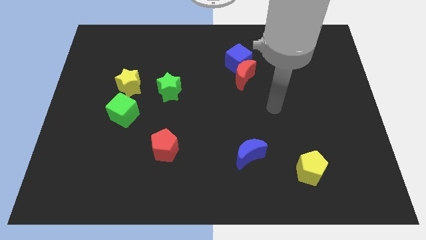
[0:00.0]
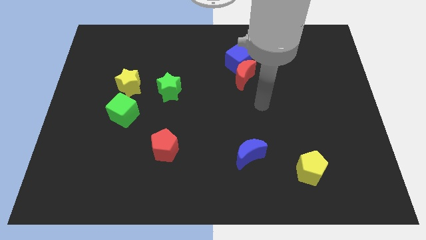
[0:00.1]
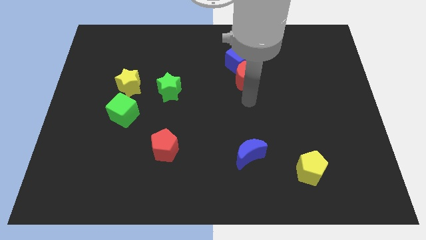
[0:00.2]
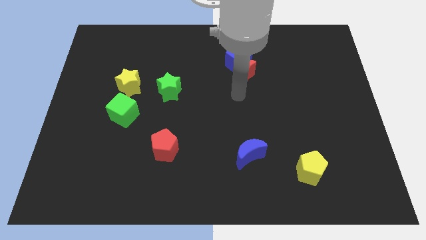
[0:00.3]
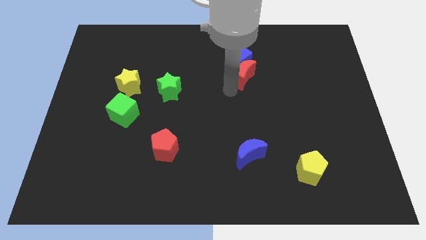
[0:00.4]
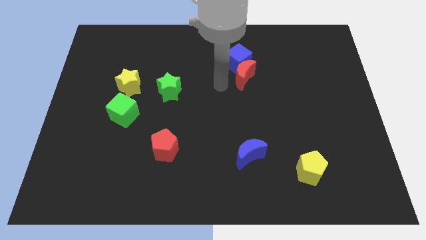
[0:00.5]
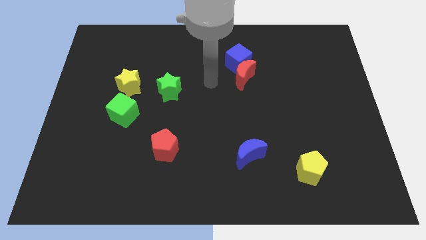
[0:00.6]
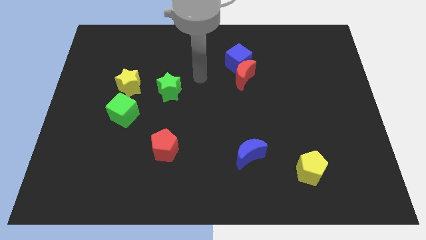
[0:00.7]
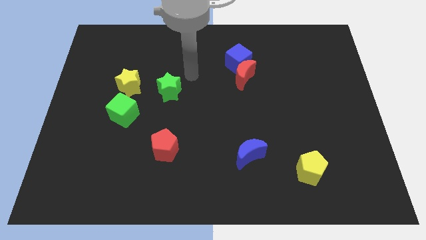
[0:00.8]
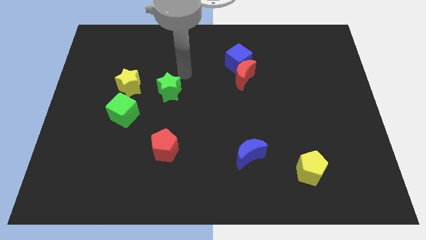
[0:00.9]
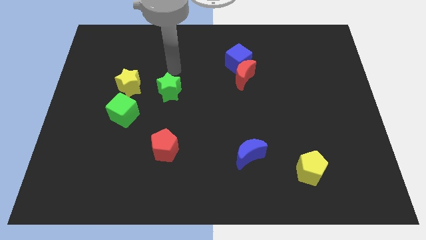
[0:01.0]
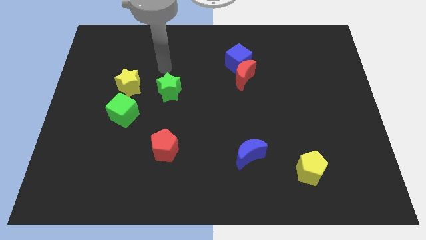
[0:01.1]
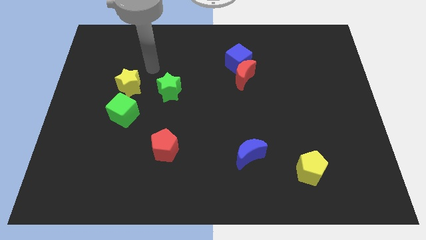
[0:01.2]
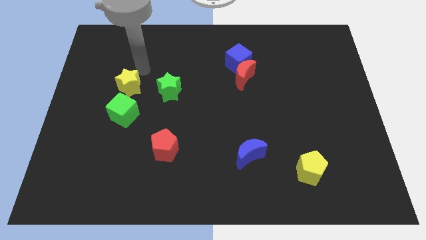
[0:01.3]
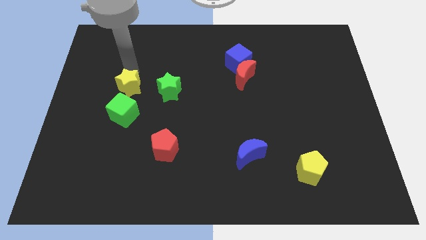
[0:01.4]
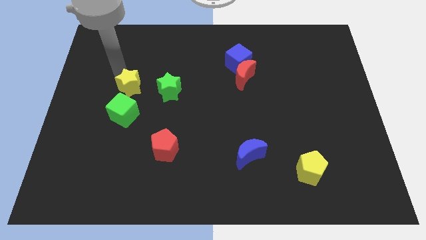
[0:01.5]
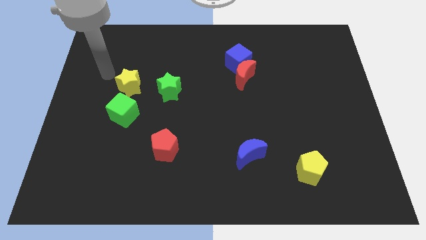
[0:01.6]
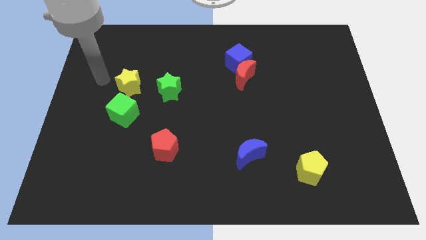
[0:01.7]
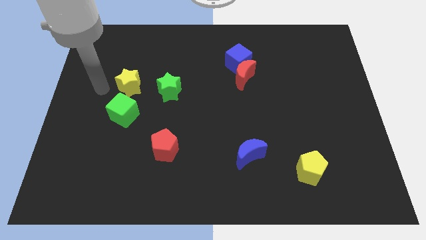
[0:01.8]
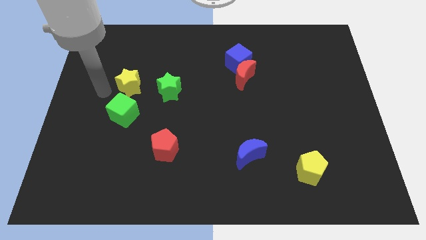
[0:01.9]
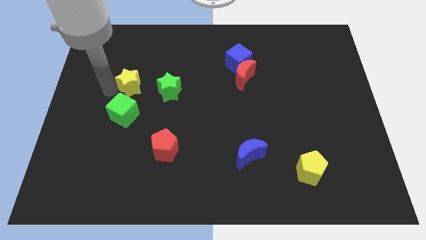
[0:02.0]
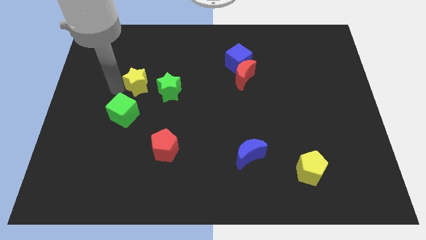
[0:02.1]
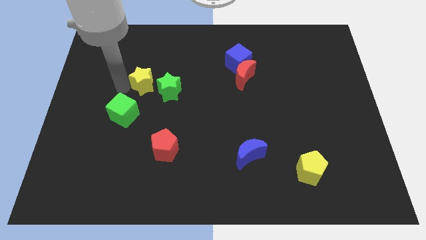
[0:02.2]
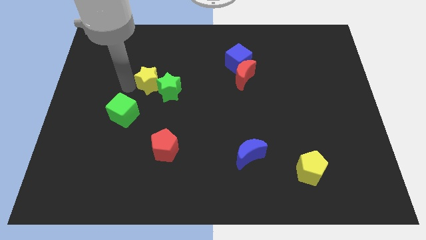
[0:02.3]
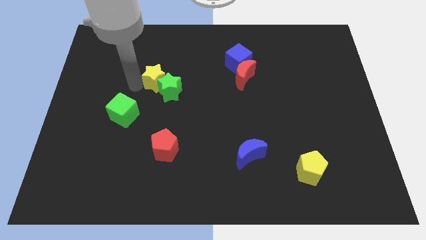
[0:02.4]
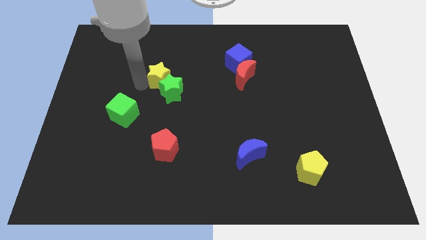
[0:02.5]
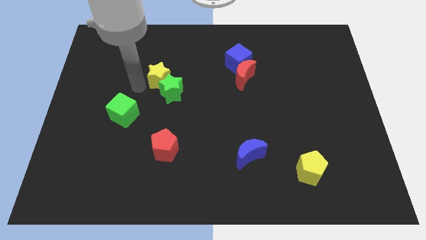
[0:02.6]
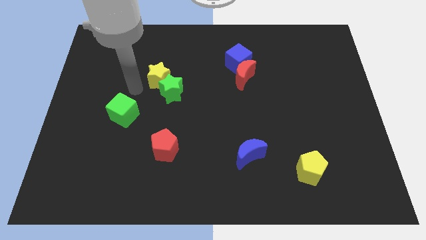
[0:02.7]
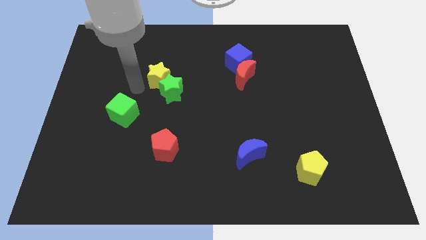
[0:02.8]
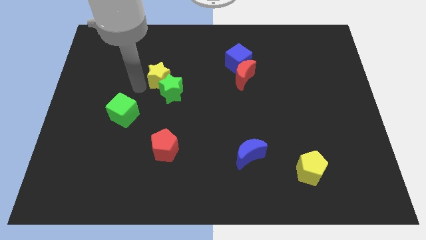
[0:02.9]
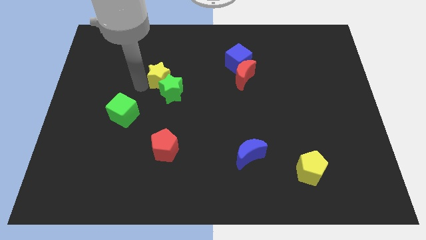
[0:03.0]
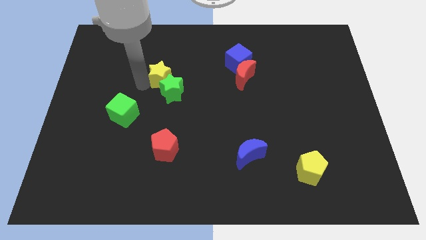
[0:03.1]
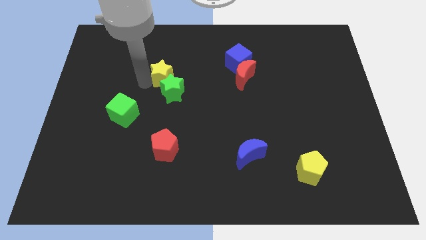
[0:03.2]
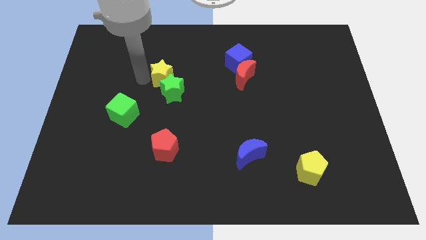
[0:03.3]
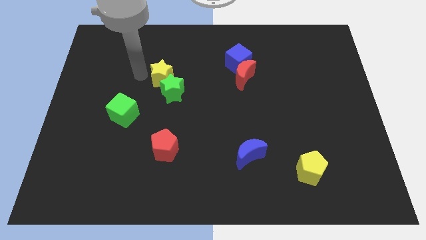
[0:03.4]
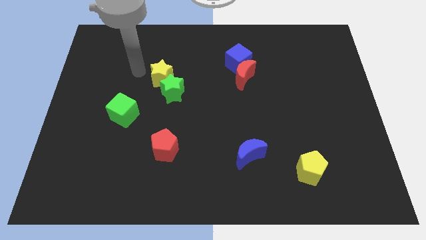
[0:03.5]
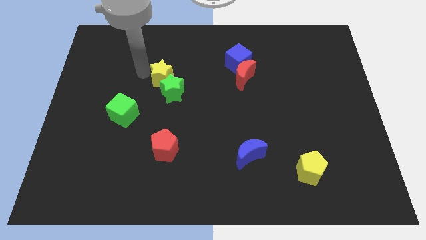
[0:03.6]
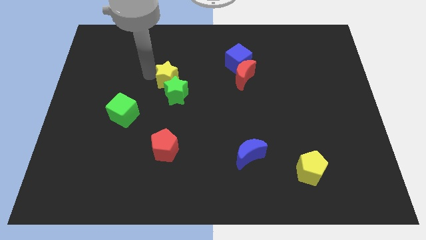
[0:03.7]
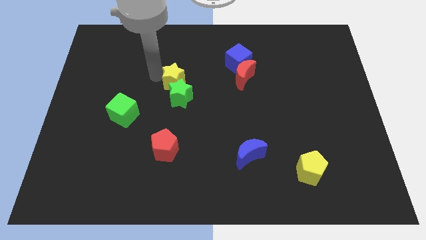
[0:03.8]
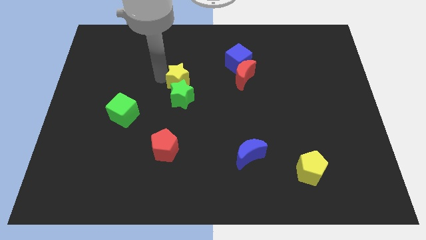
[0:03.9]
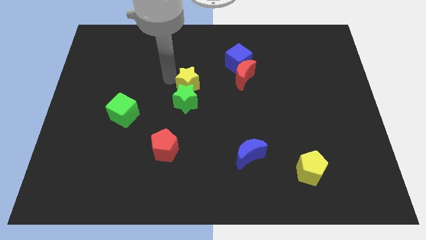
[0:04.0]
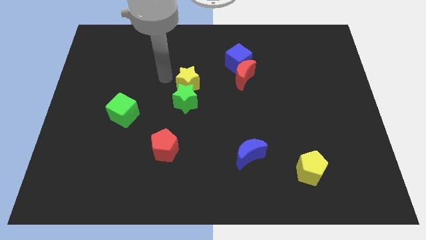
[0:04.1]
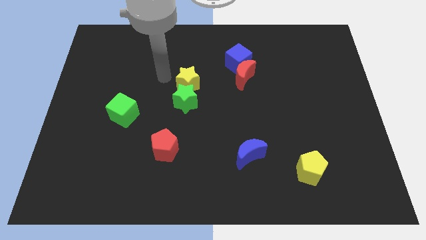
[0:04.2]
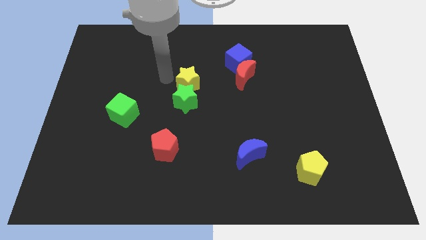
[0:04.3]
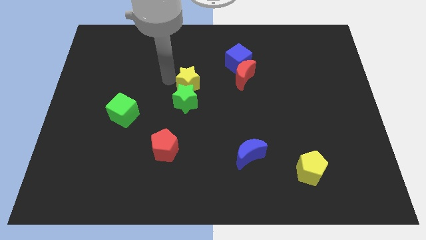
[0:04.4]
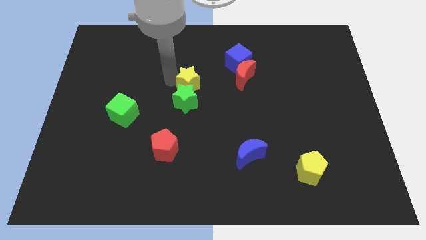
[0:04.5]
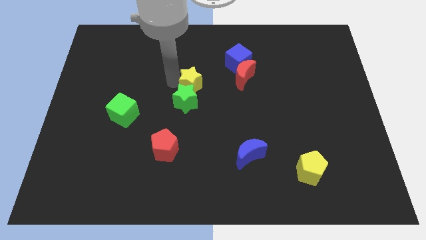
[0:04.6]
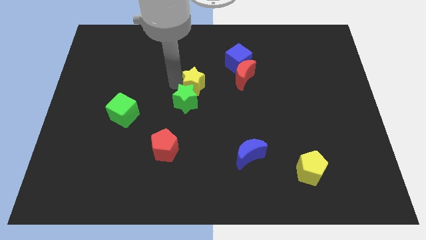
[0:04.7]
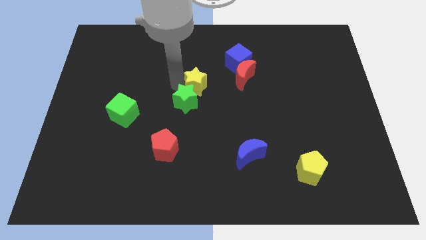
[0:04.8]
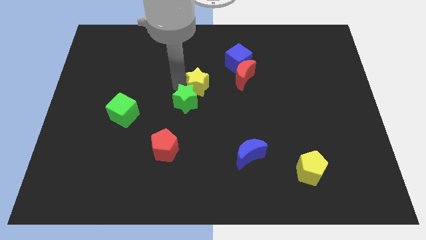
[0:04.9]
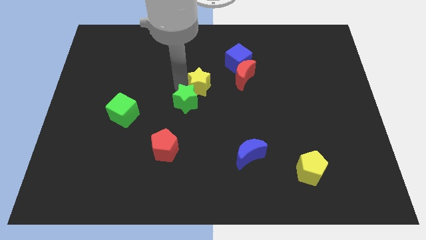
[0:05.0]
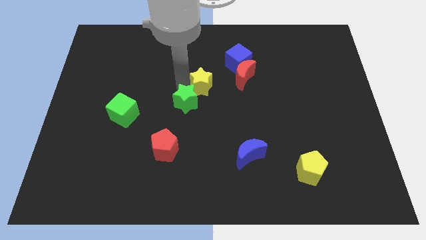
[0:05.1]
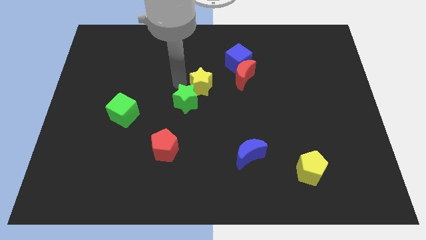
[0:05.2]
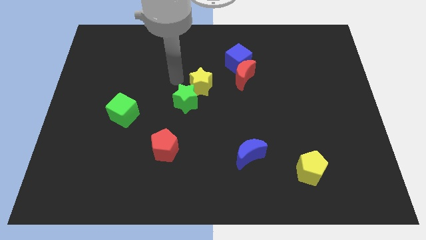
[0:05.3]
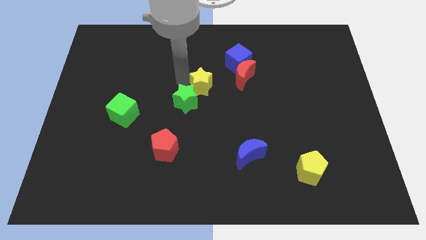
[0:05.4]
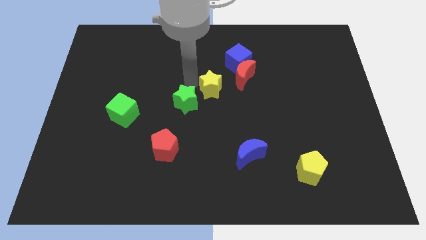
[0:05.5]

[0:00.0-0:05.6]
push the yellow star right

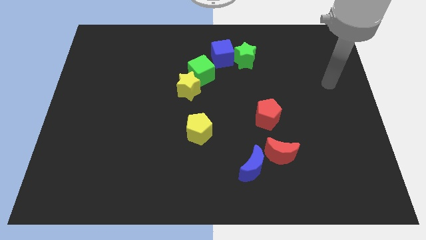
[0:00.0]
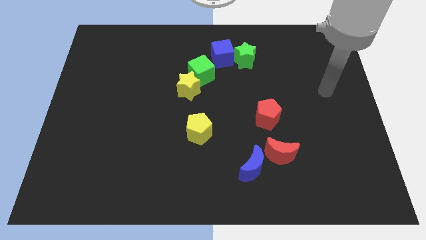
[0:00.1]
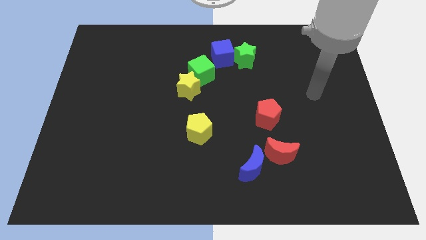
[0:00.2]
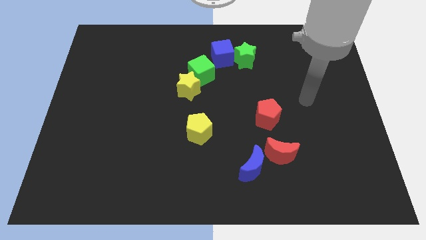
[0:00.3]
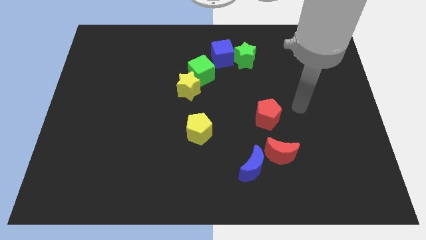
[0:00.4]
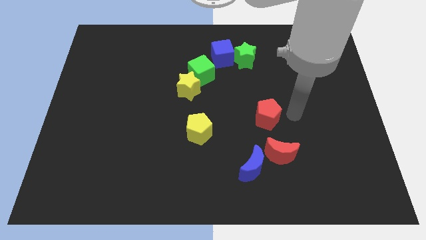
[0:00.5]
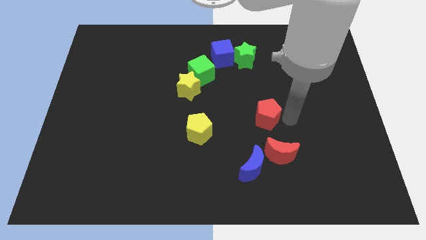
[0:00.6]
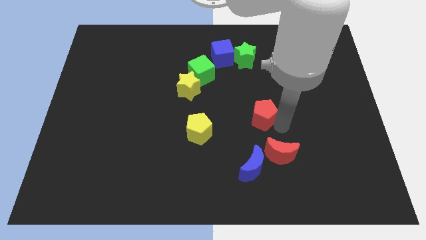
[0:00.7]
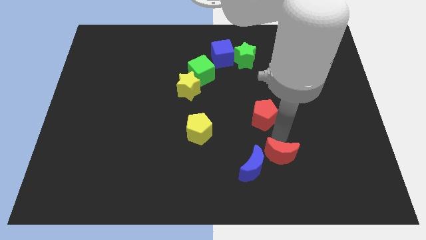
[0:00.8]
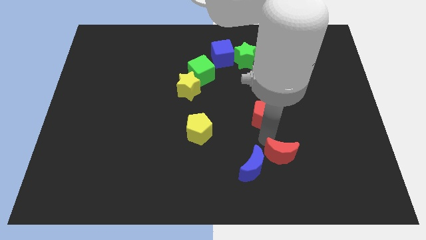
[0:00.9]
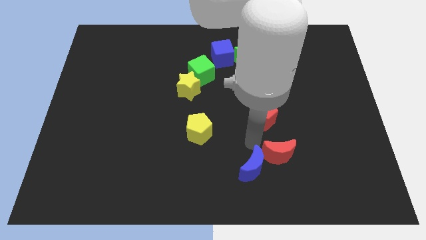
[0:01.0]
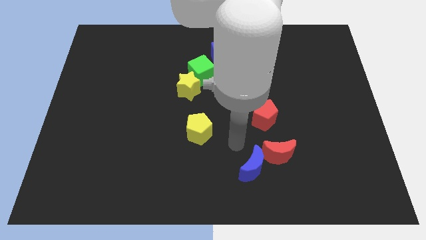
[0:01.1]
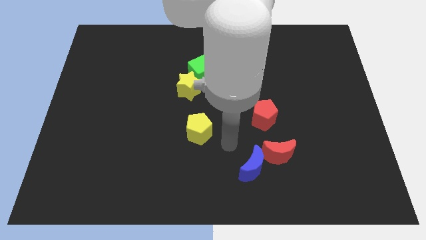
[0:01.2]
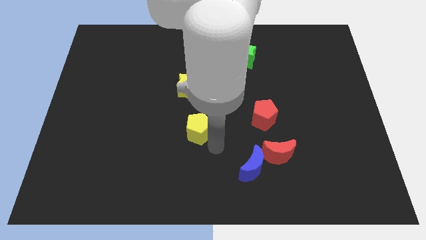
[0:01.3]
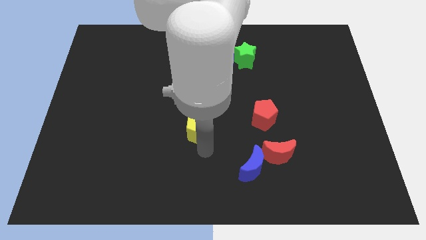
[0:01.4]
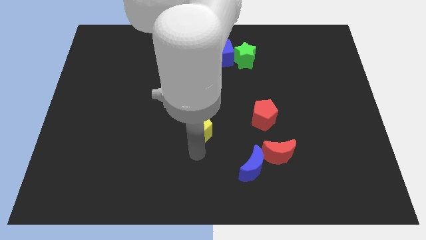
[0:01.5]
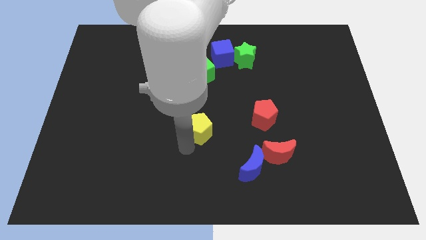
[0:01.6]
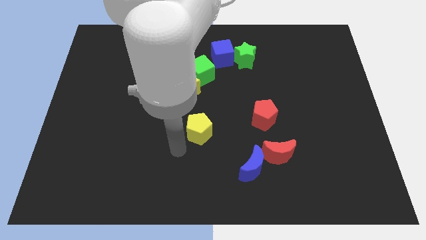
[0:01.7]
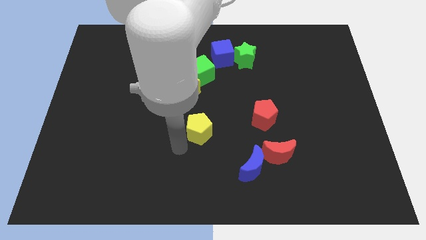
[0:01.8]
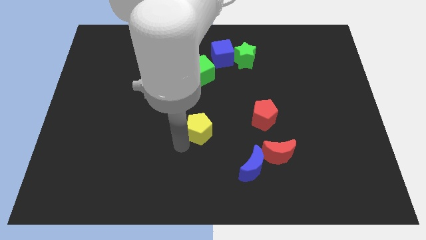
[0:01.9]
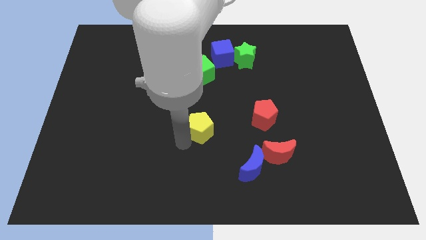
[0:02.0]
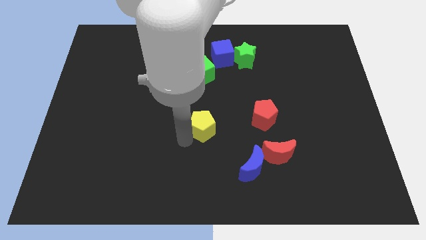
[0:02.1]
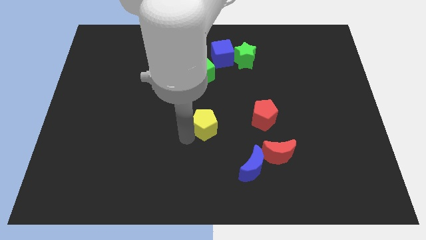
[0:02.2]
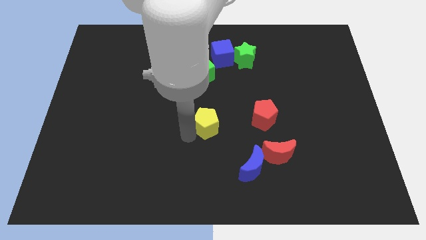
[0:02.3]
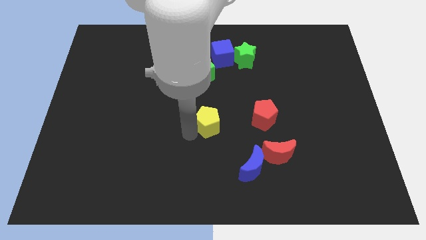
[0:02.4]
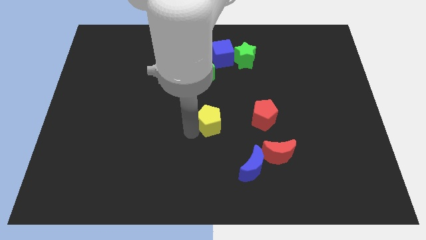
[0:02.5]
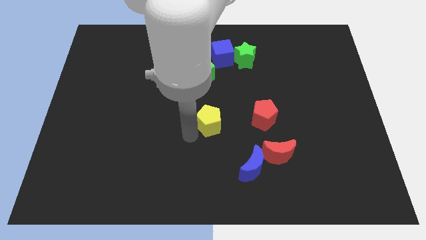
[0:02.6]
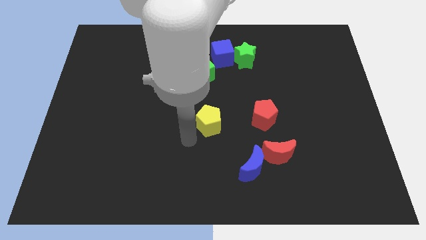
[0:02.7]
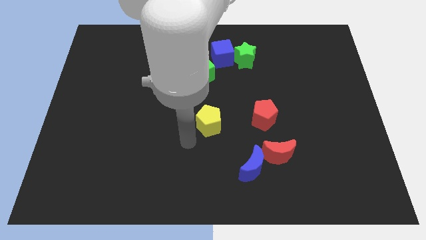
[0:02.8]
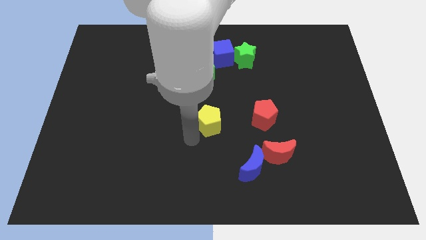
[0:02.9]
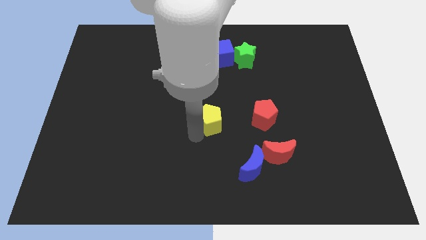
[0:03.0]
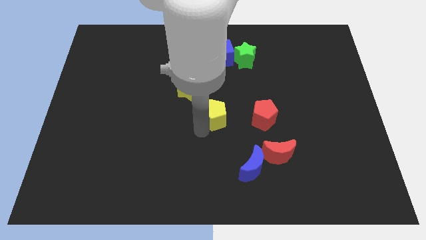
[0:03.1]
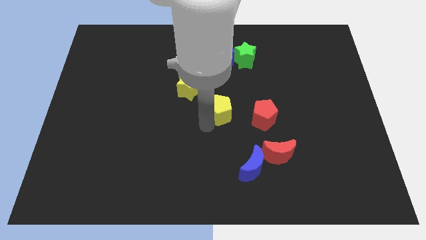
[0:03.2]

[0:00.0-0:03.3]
slightly slide the yellow pentagon upwards and right
